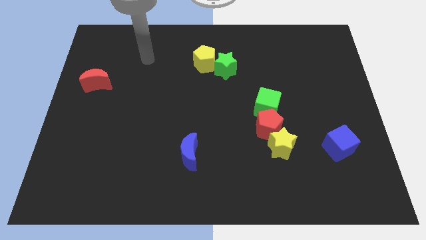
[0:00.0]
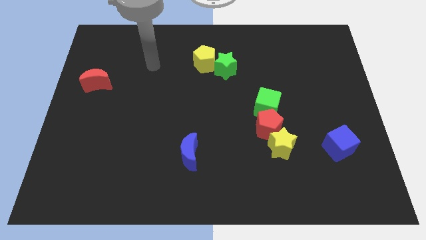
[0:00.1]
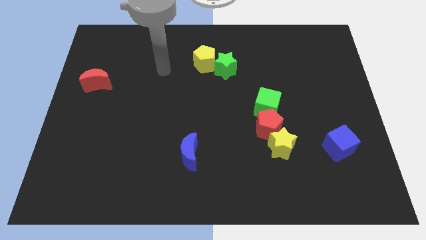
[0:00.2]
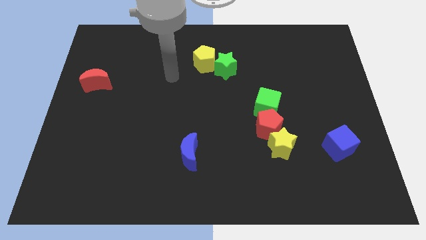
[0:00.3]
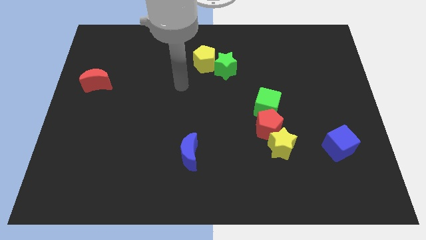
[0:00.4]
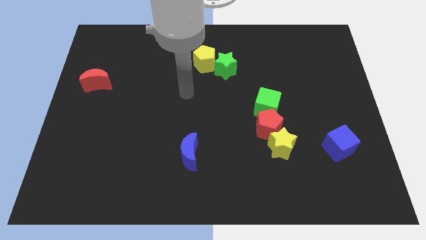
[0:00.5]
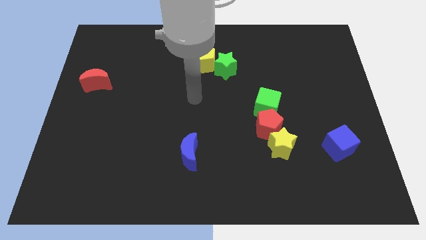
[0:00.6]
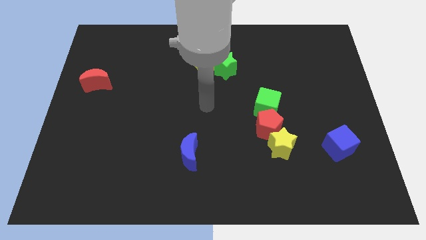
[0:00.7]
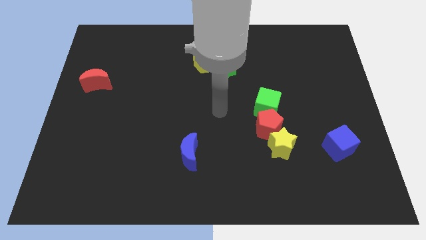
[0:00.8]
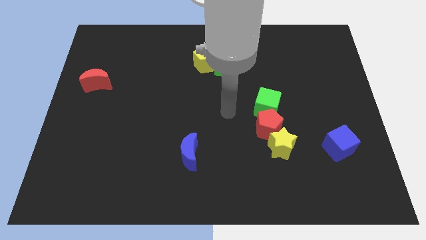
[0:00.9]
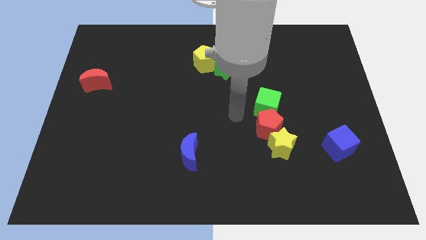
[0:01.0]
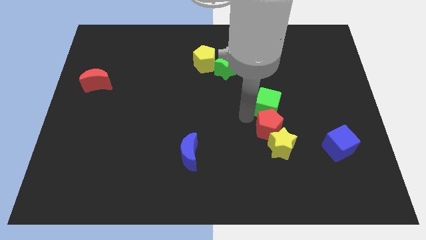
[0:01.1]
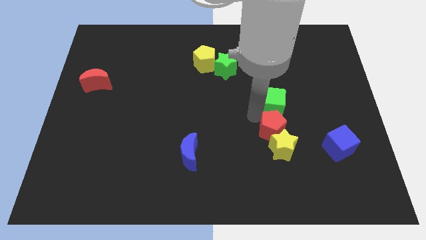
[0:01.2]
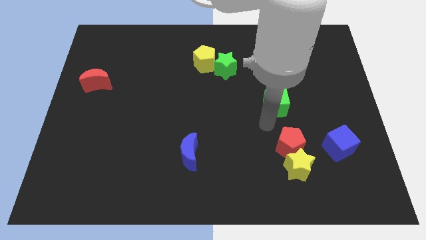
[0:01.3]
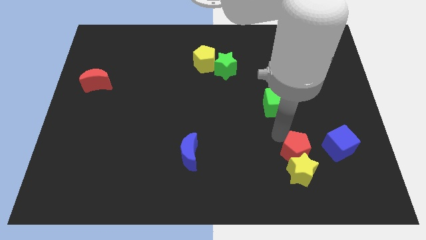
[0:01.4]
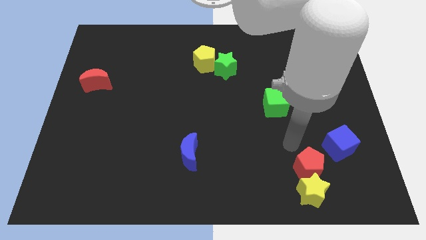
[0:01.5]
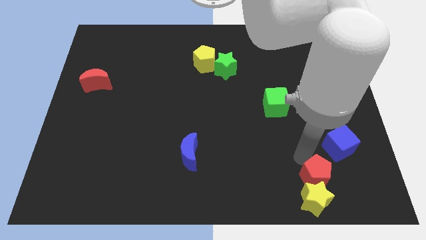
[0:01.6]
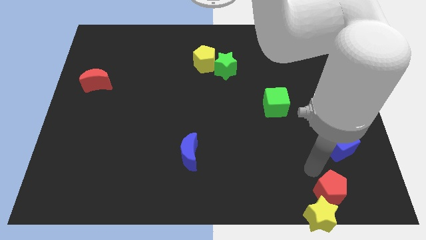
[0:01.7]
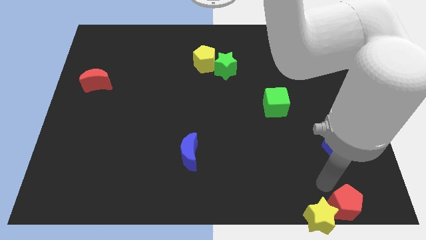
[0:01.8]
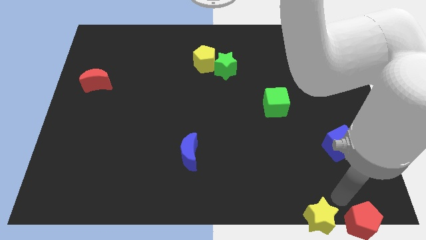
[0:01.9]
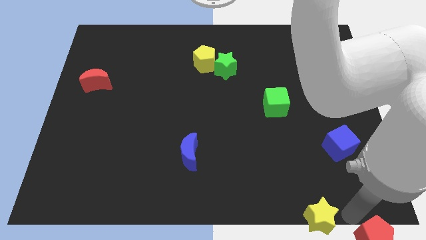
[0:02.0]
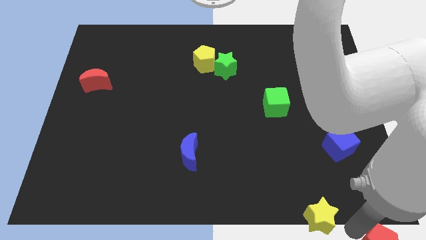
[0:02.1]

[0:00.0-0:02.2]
move the yellow star away from the red pentagon

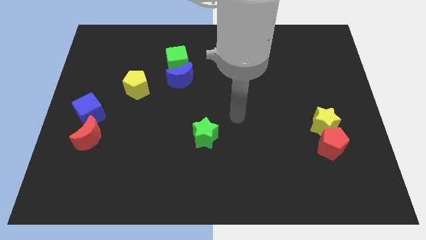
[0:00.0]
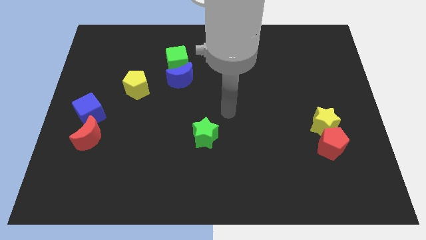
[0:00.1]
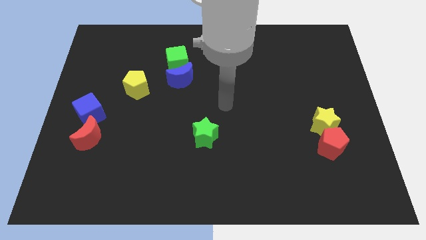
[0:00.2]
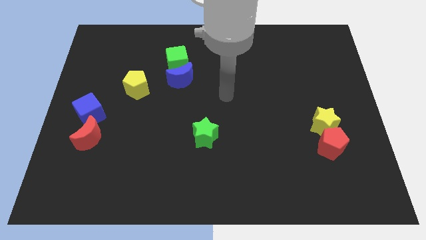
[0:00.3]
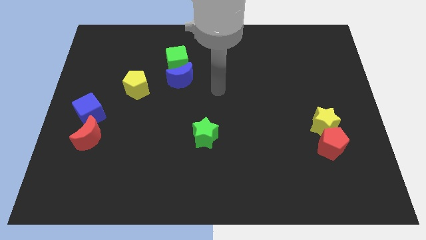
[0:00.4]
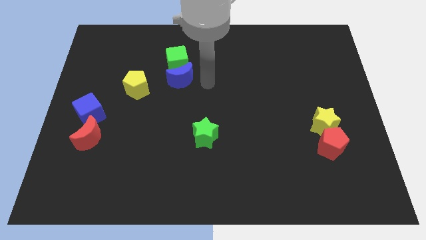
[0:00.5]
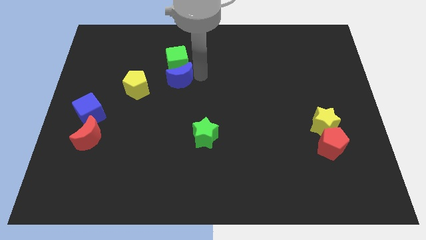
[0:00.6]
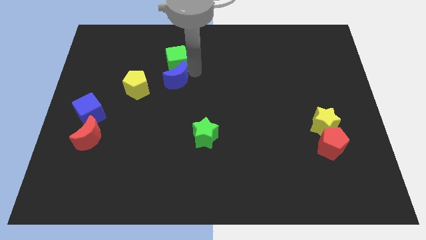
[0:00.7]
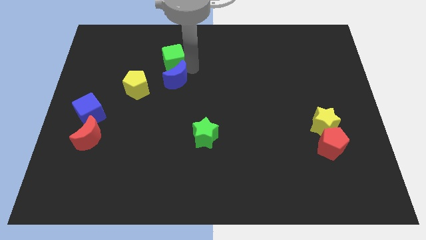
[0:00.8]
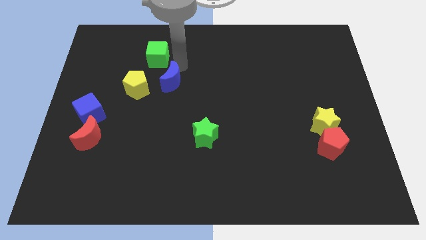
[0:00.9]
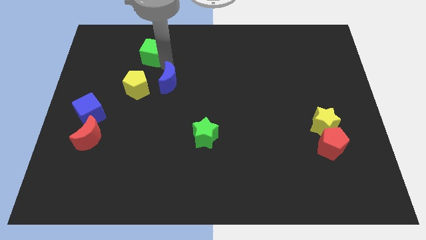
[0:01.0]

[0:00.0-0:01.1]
move the blue moon away from the green cube

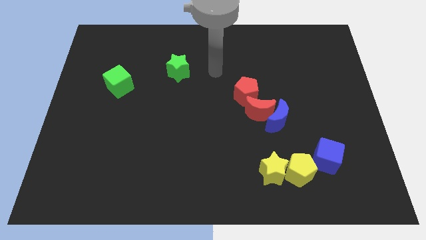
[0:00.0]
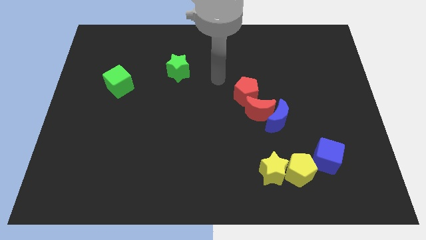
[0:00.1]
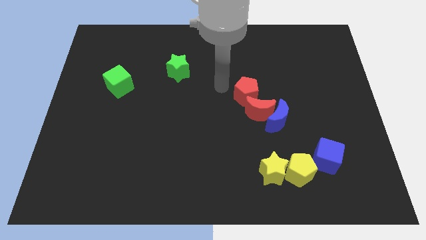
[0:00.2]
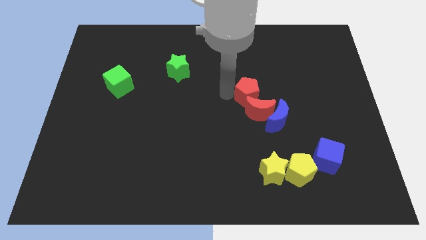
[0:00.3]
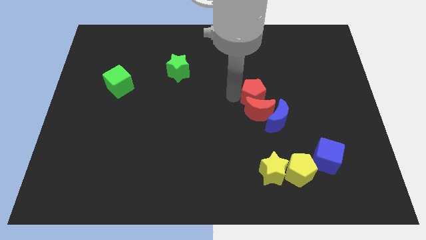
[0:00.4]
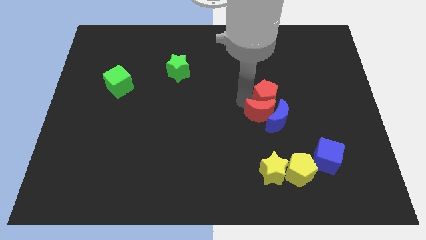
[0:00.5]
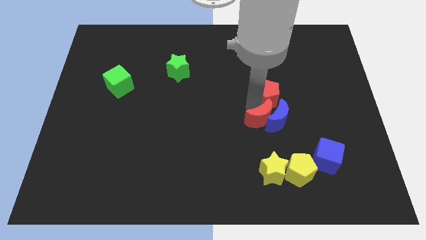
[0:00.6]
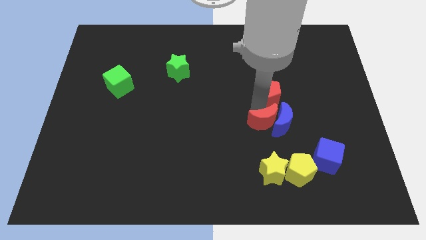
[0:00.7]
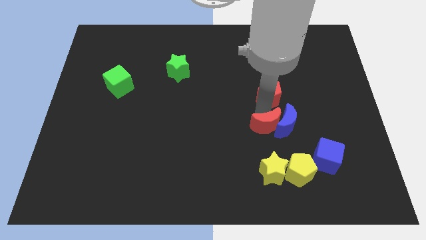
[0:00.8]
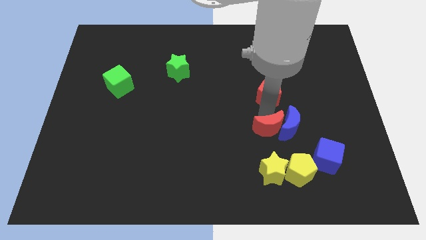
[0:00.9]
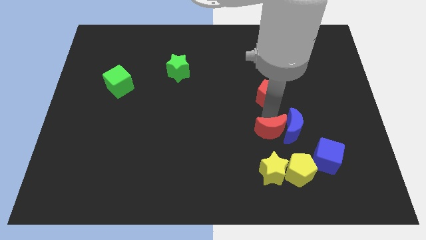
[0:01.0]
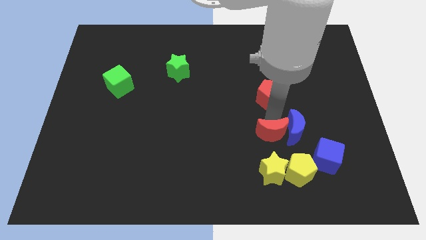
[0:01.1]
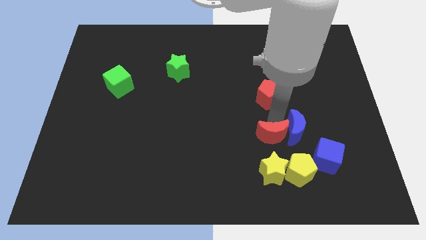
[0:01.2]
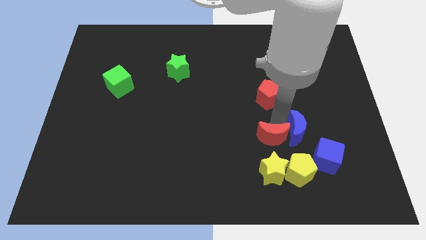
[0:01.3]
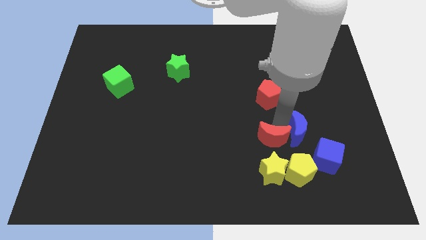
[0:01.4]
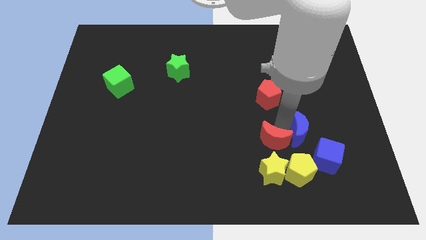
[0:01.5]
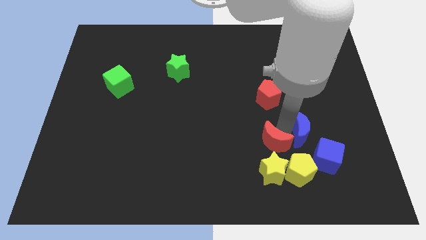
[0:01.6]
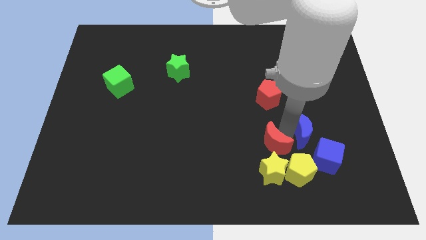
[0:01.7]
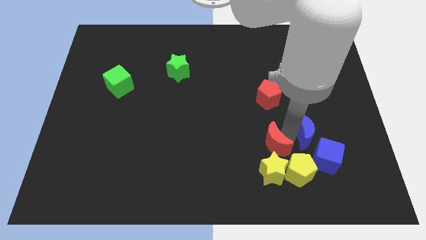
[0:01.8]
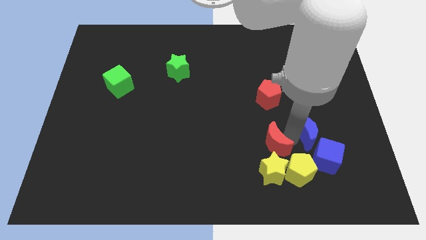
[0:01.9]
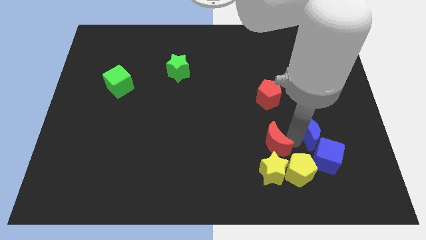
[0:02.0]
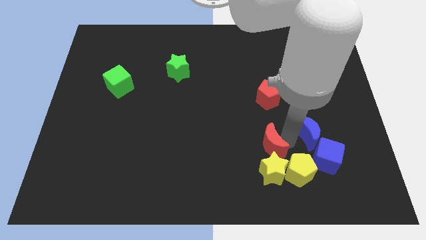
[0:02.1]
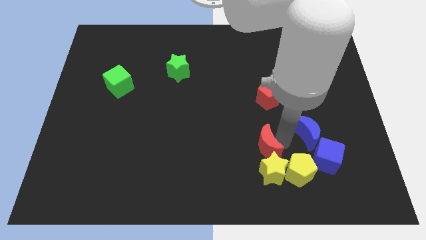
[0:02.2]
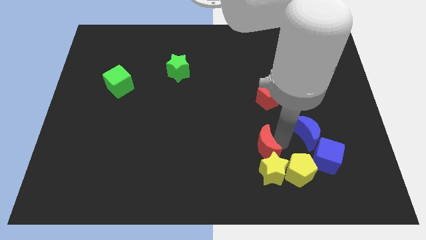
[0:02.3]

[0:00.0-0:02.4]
pull the blue moon apart from the red moon

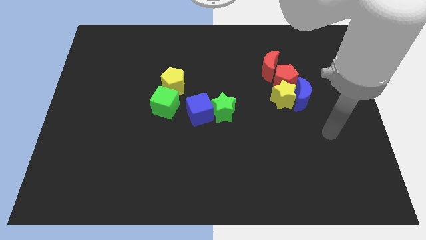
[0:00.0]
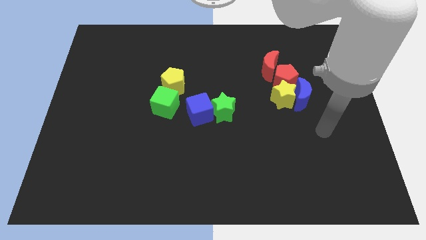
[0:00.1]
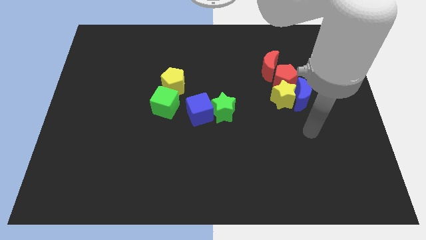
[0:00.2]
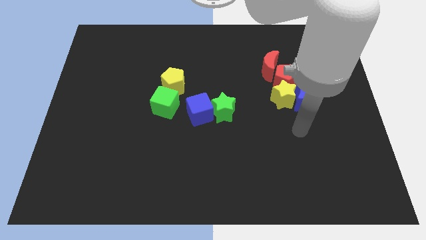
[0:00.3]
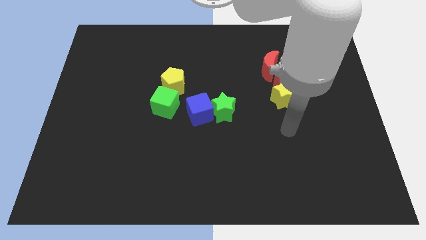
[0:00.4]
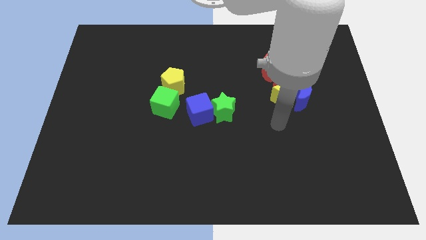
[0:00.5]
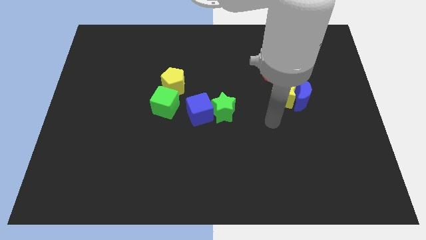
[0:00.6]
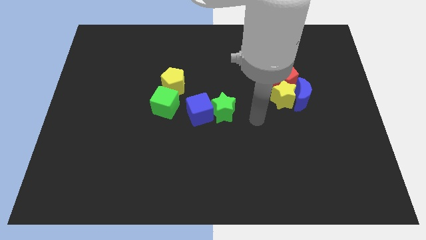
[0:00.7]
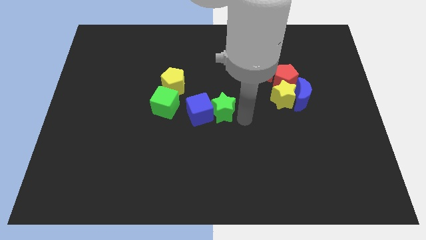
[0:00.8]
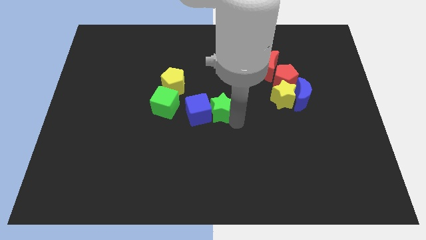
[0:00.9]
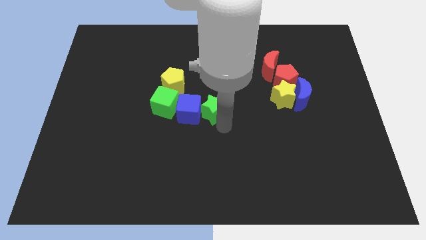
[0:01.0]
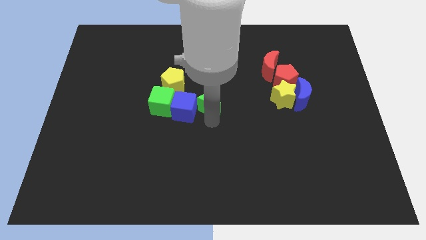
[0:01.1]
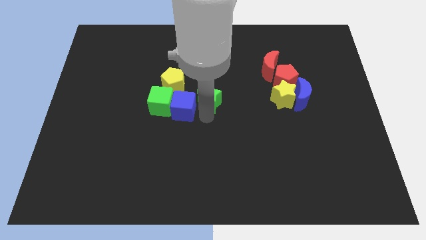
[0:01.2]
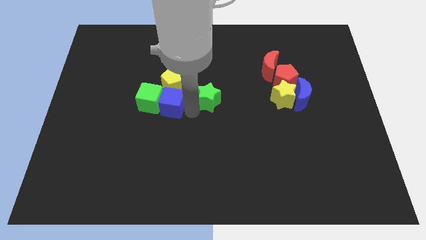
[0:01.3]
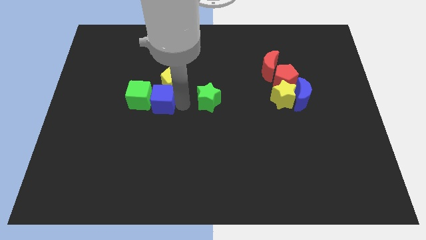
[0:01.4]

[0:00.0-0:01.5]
pull the green star apart from the blue cube

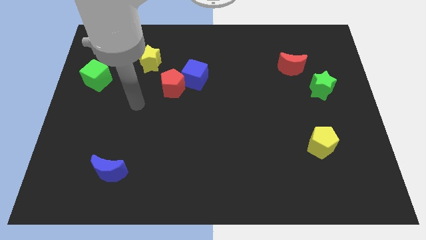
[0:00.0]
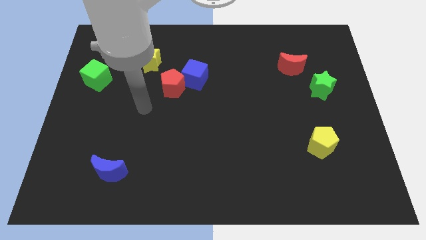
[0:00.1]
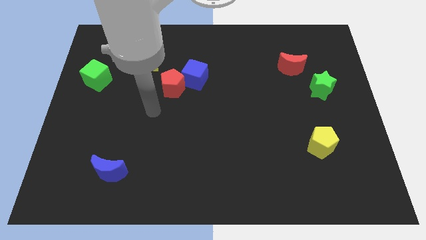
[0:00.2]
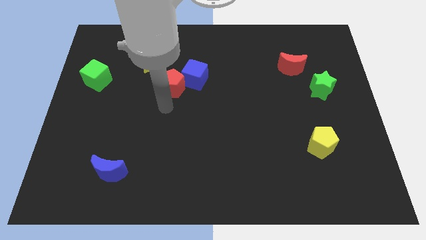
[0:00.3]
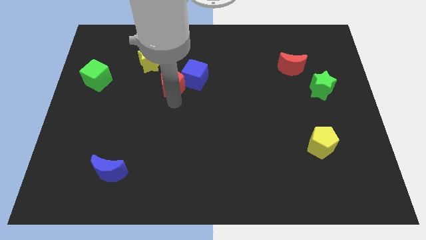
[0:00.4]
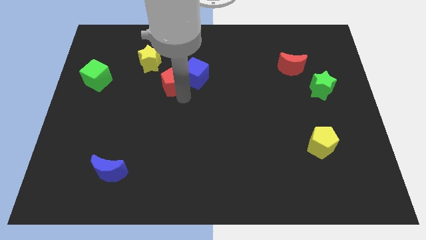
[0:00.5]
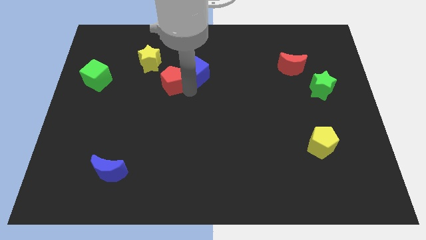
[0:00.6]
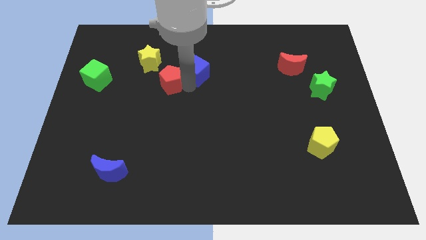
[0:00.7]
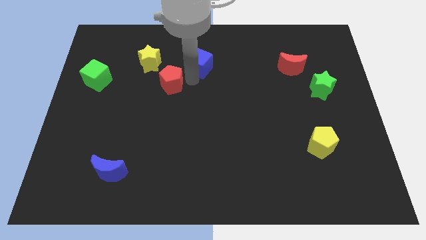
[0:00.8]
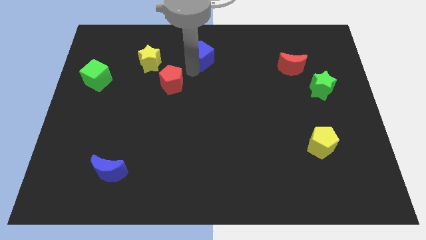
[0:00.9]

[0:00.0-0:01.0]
pull the red pentagon apart from the blue cube

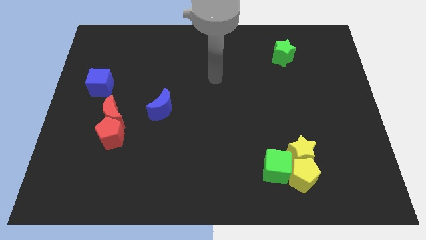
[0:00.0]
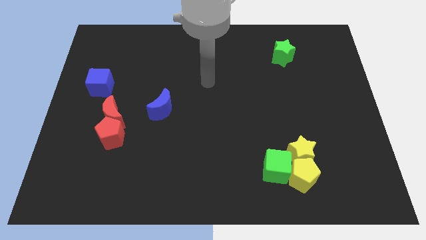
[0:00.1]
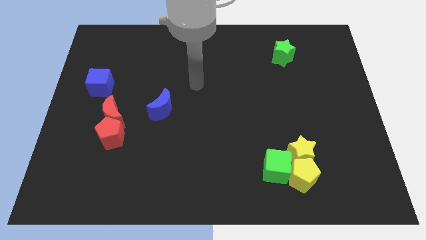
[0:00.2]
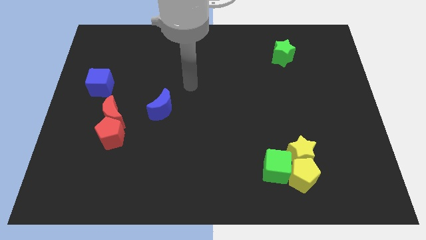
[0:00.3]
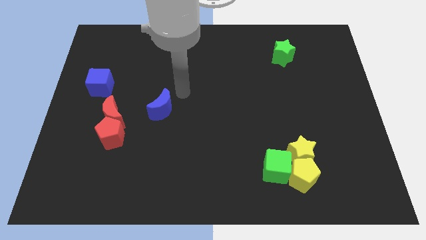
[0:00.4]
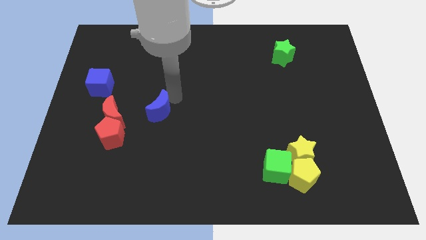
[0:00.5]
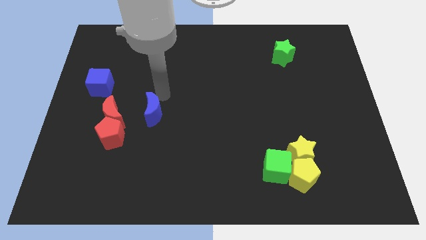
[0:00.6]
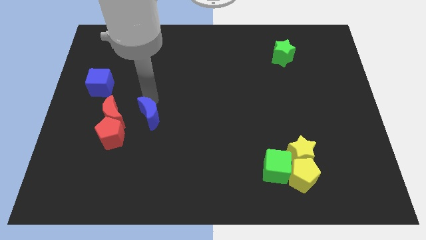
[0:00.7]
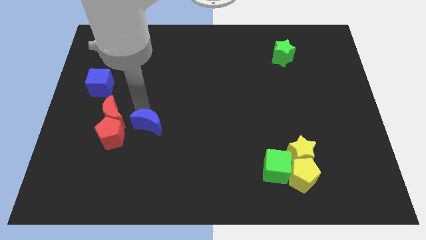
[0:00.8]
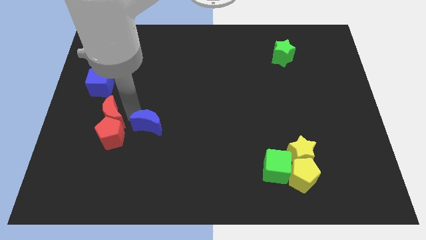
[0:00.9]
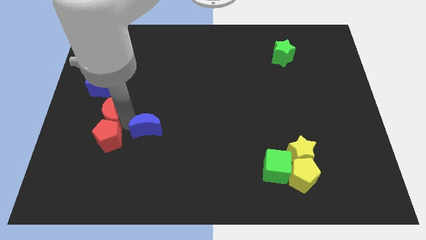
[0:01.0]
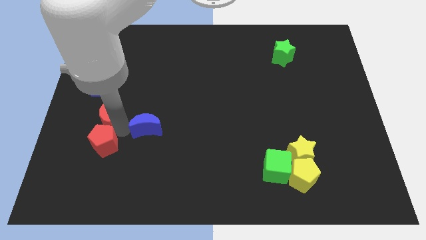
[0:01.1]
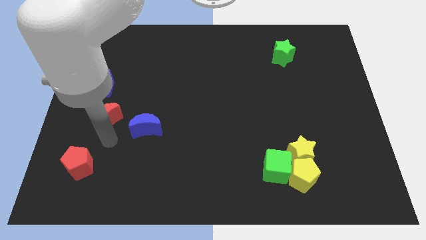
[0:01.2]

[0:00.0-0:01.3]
pull the red moon apart from the red pentagon
